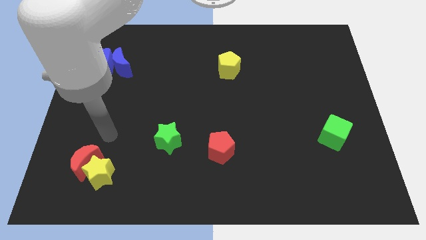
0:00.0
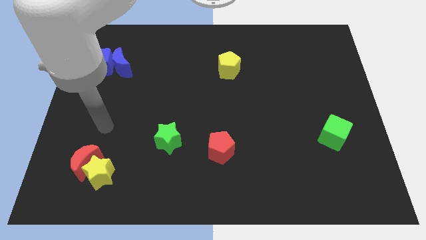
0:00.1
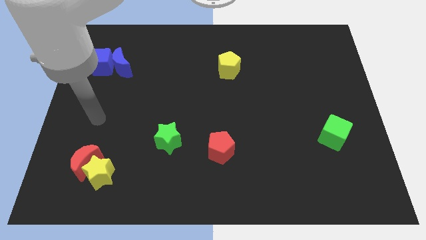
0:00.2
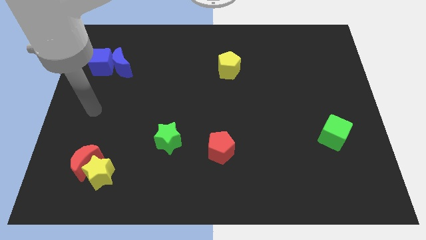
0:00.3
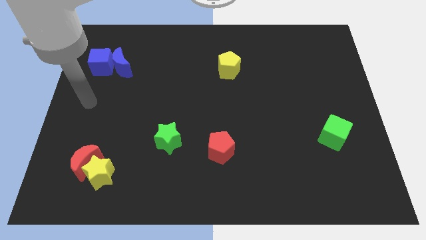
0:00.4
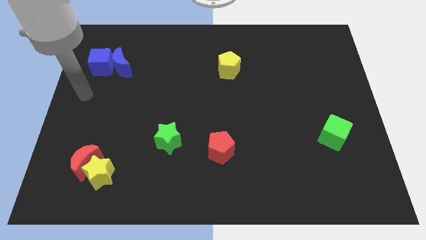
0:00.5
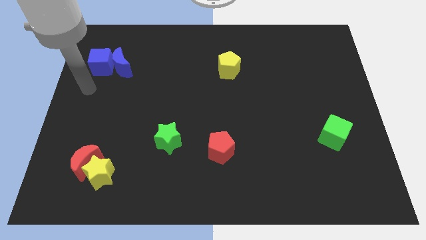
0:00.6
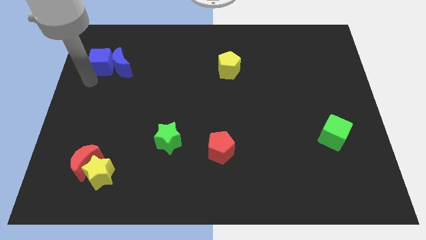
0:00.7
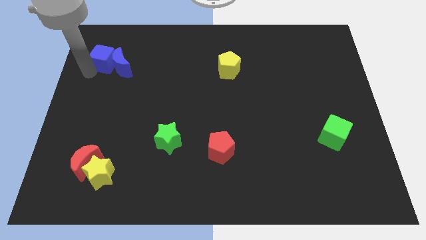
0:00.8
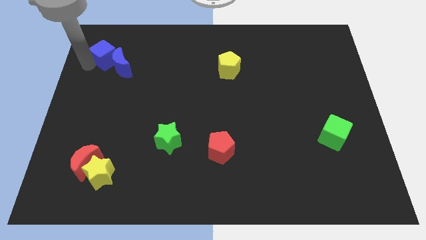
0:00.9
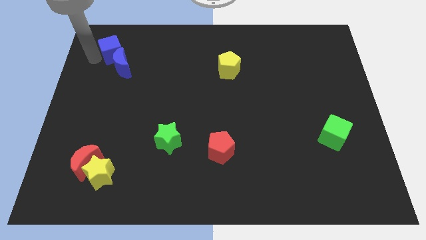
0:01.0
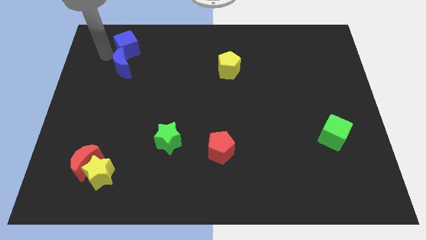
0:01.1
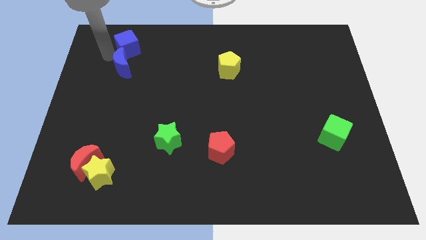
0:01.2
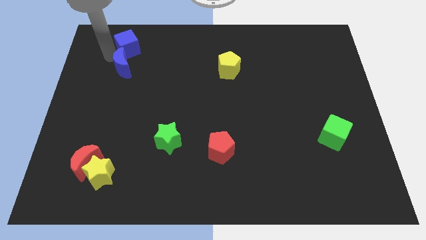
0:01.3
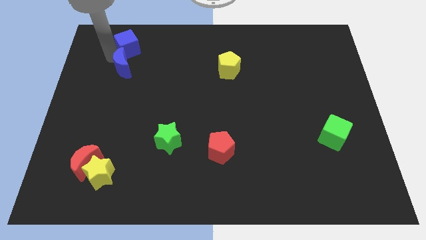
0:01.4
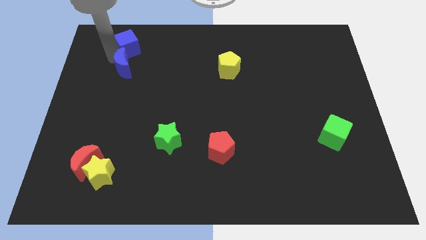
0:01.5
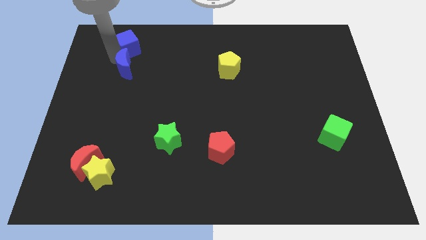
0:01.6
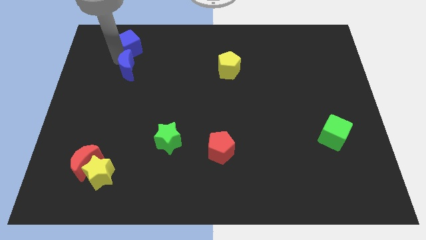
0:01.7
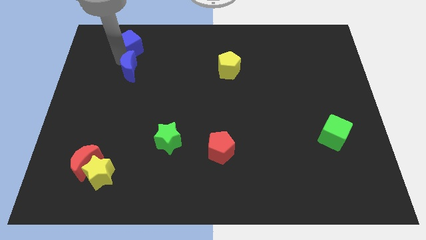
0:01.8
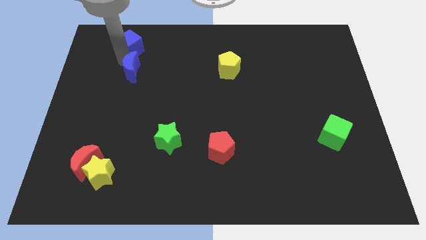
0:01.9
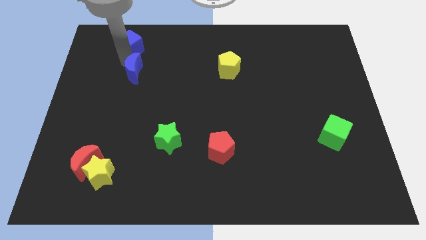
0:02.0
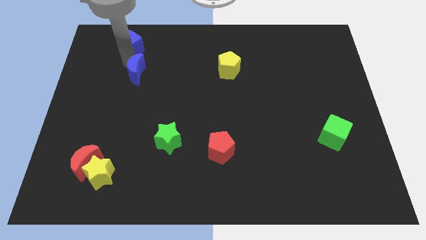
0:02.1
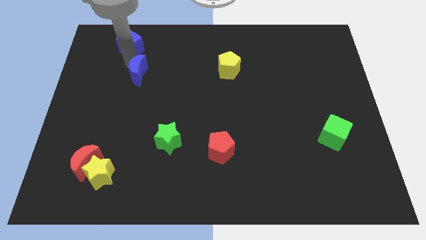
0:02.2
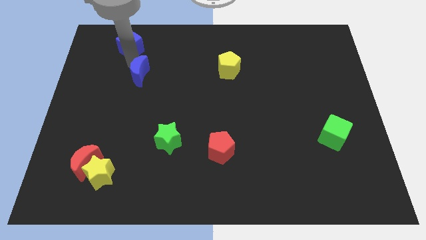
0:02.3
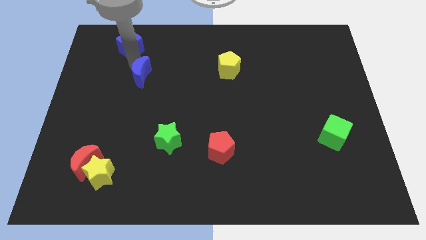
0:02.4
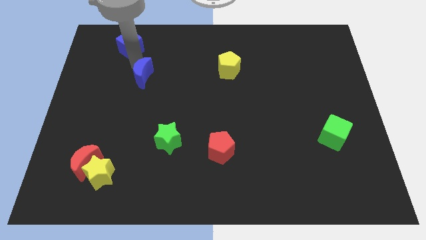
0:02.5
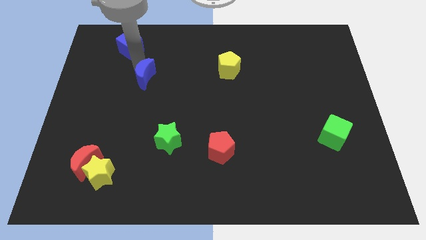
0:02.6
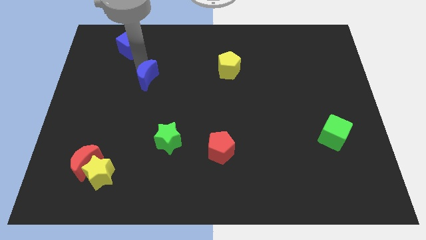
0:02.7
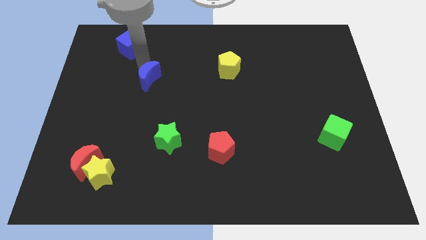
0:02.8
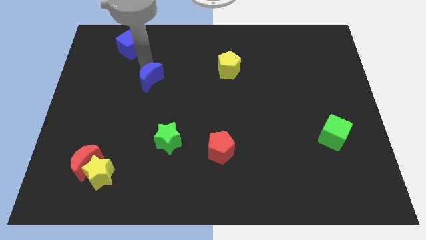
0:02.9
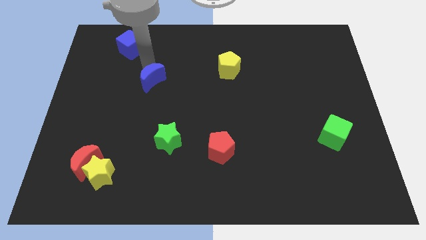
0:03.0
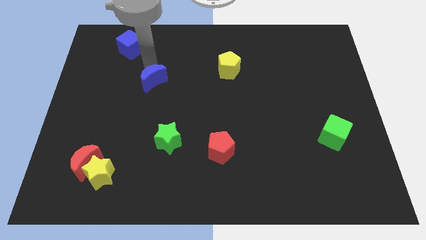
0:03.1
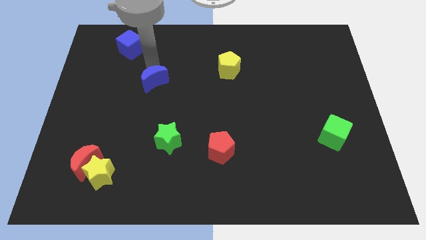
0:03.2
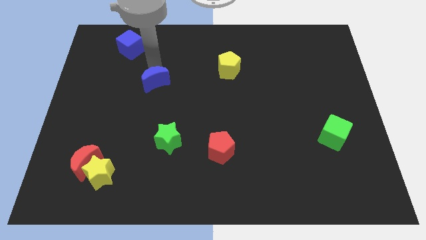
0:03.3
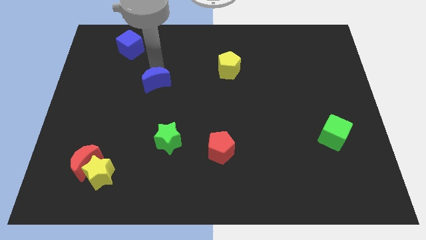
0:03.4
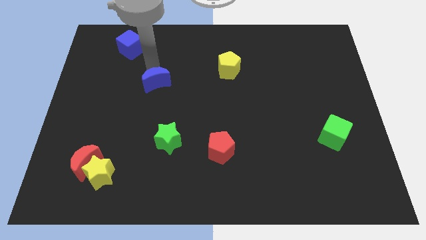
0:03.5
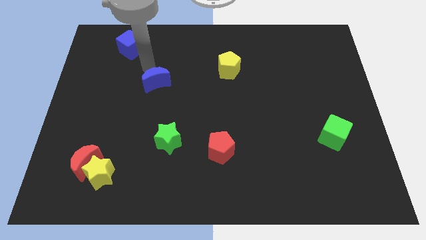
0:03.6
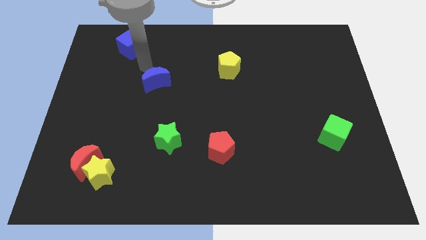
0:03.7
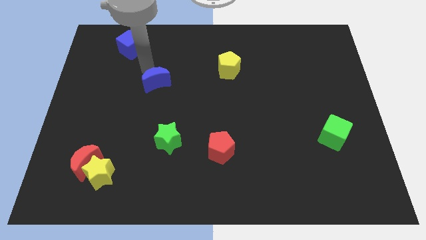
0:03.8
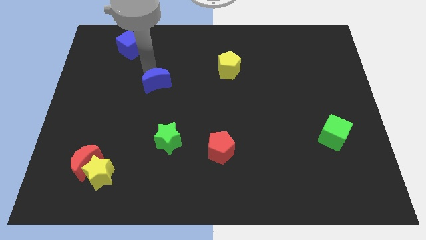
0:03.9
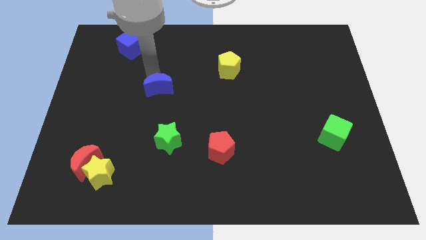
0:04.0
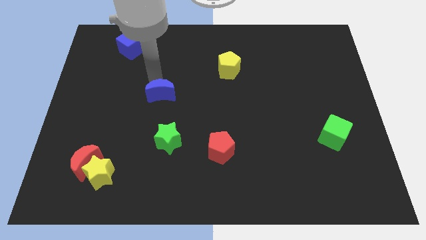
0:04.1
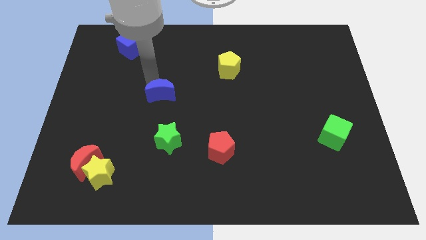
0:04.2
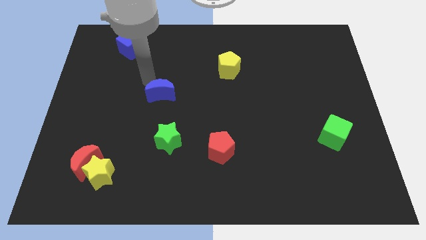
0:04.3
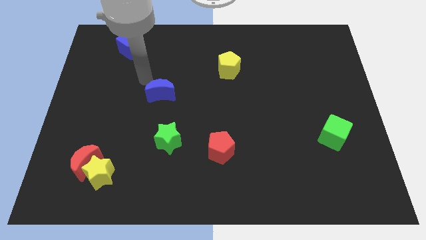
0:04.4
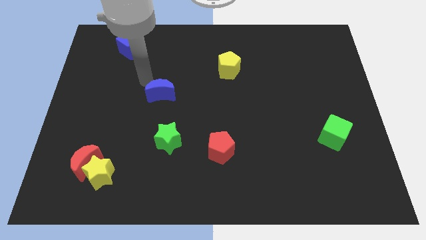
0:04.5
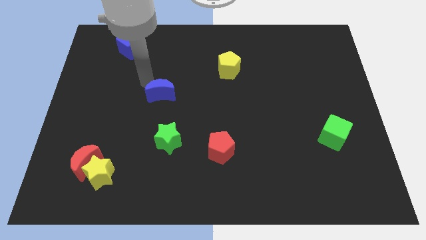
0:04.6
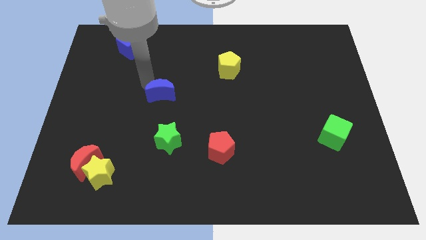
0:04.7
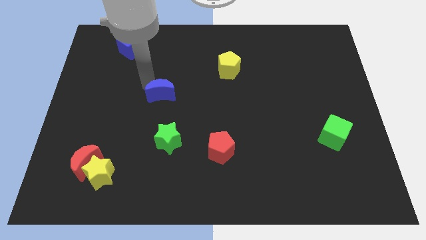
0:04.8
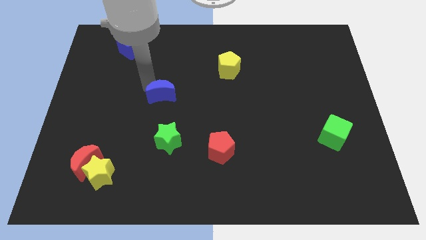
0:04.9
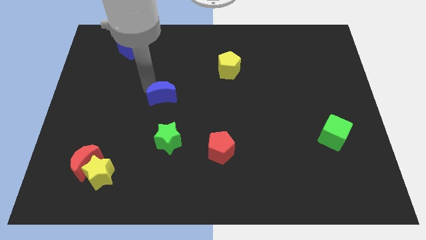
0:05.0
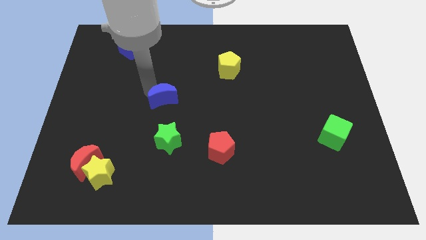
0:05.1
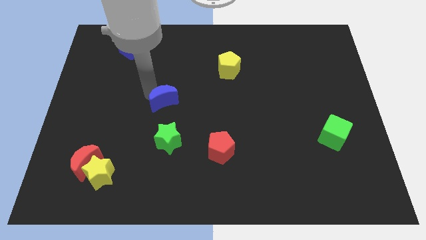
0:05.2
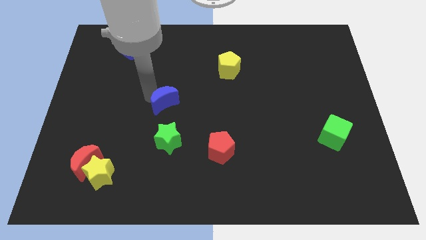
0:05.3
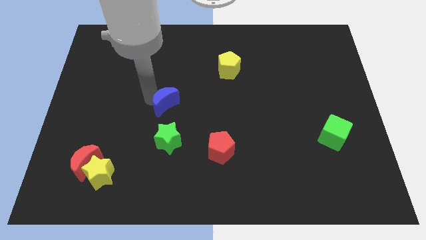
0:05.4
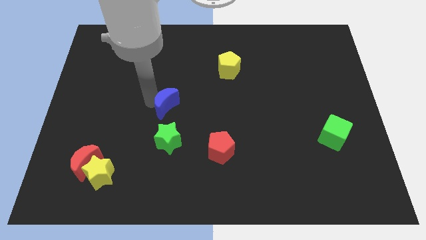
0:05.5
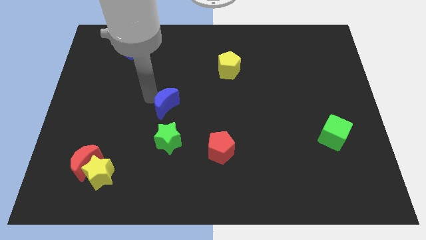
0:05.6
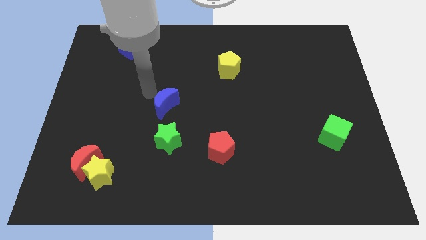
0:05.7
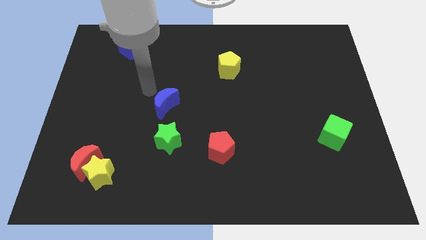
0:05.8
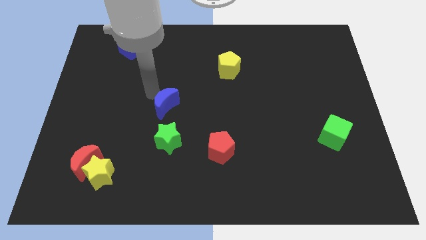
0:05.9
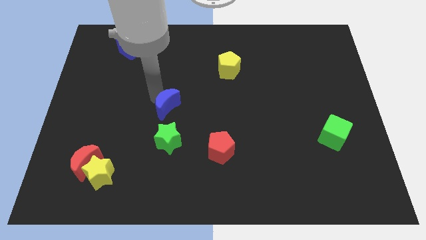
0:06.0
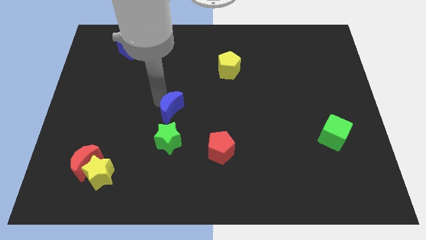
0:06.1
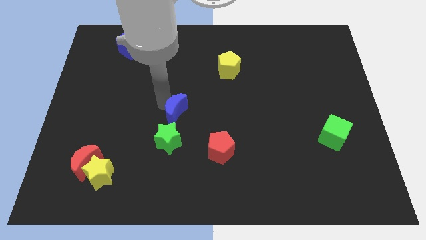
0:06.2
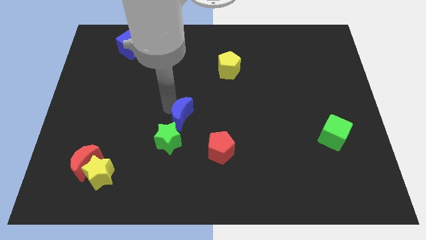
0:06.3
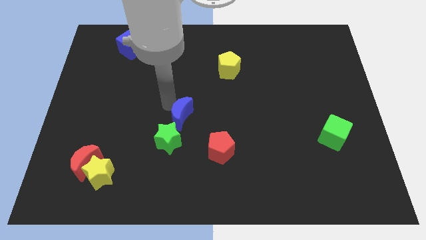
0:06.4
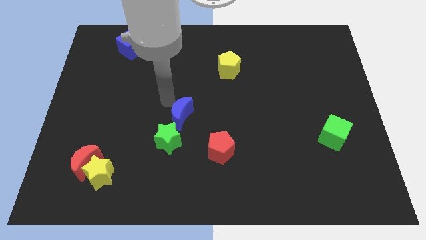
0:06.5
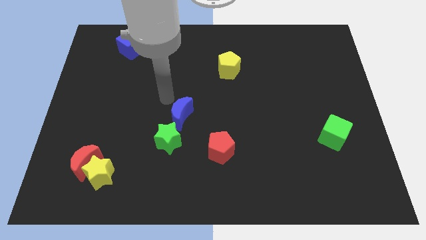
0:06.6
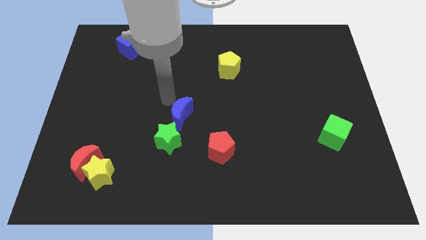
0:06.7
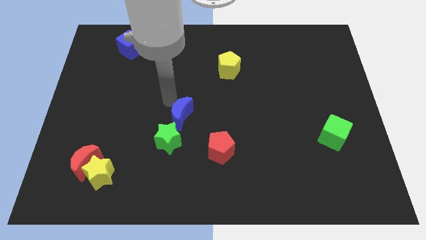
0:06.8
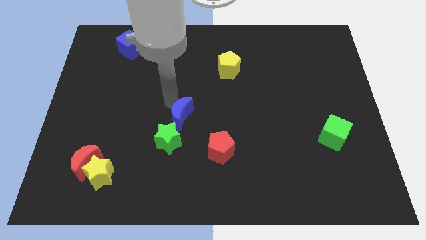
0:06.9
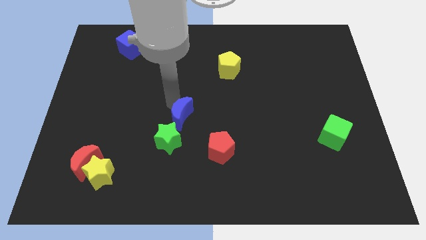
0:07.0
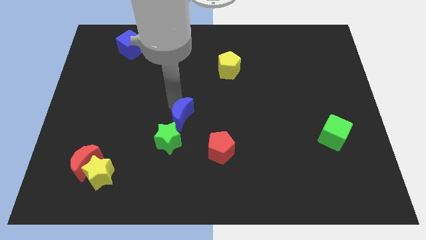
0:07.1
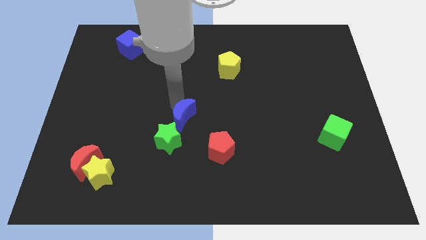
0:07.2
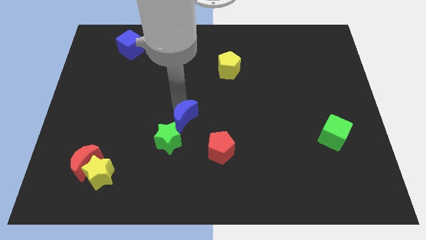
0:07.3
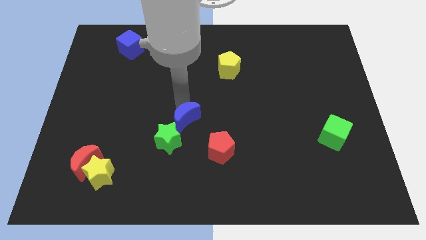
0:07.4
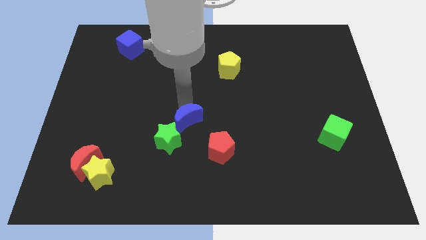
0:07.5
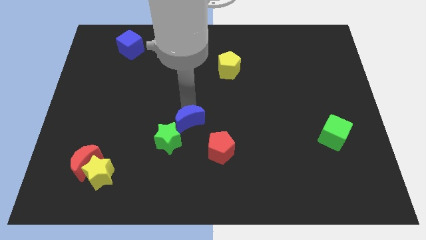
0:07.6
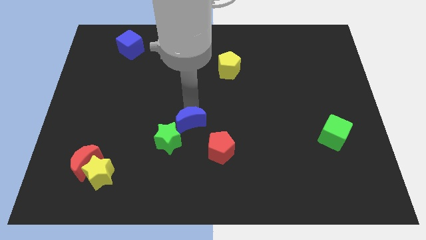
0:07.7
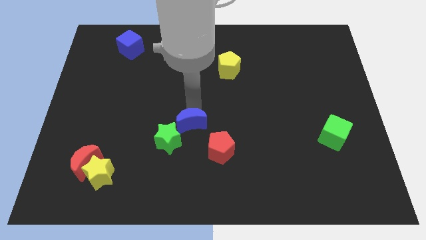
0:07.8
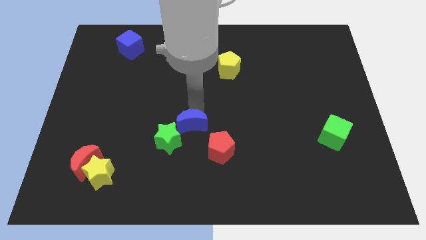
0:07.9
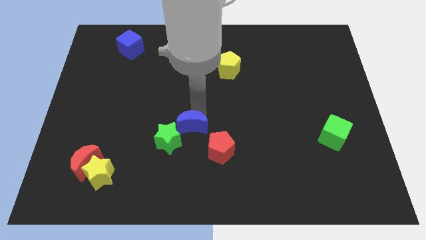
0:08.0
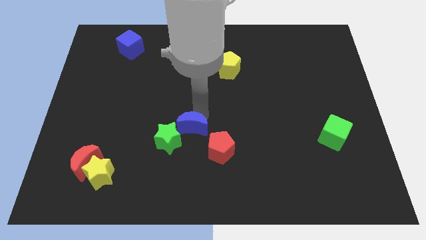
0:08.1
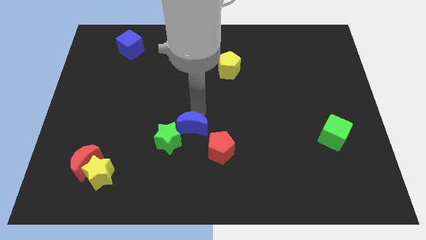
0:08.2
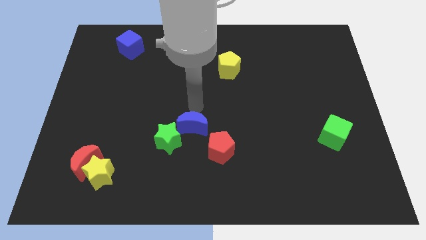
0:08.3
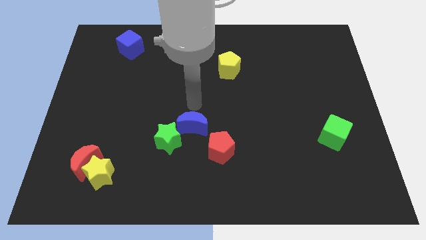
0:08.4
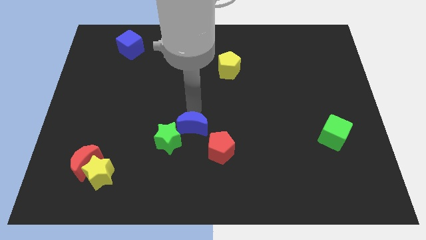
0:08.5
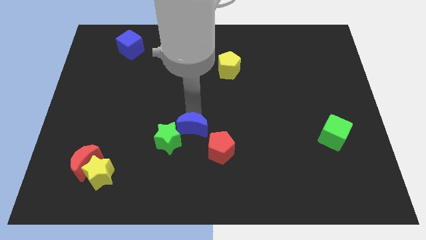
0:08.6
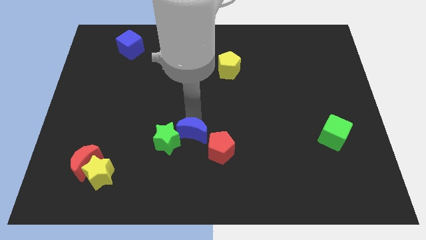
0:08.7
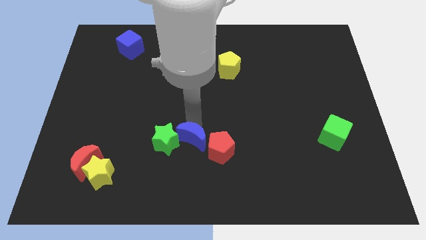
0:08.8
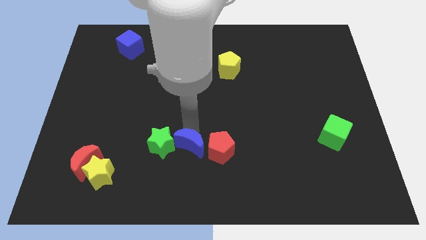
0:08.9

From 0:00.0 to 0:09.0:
move the blue moon towards the red pentagon
